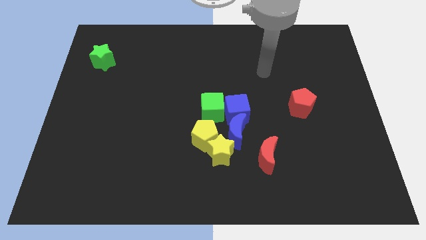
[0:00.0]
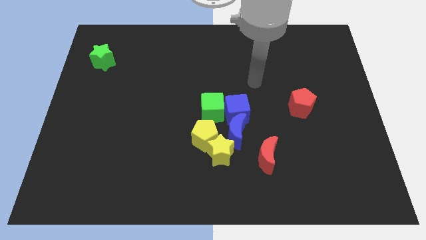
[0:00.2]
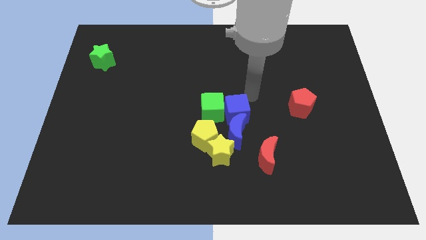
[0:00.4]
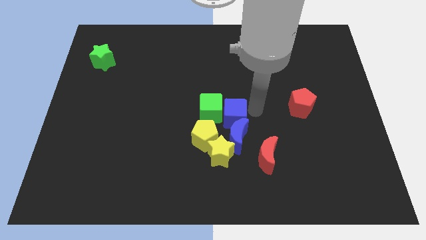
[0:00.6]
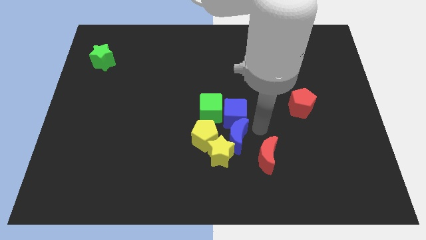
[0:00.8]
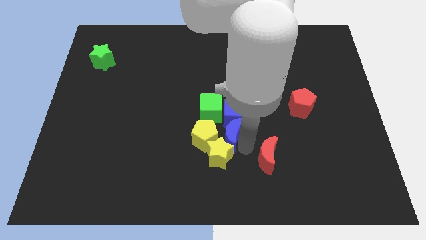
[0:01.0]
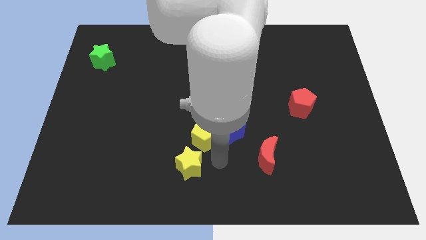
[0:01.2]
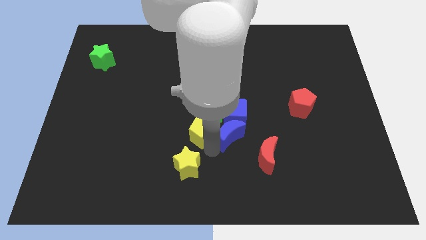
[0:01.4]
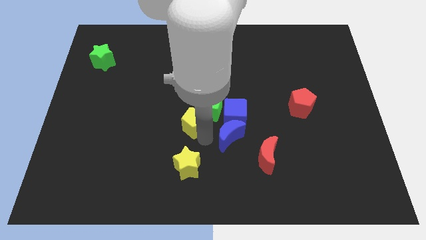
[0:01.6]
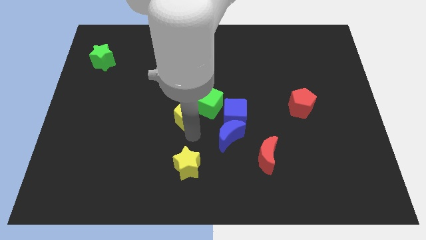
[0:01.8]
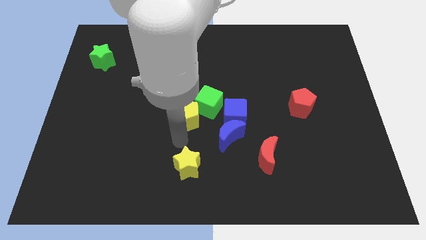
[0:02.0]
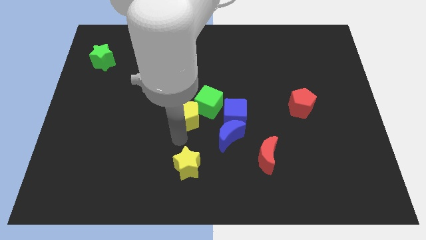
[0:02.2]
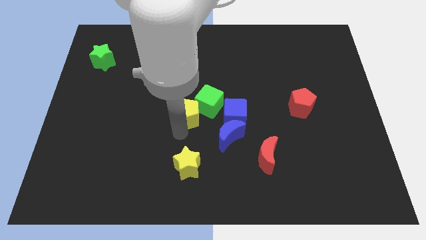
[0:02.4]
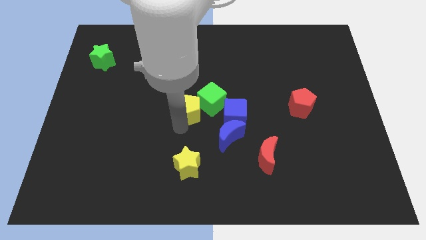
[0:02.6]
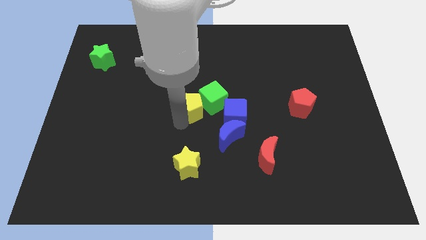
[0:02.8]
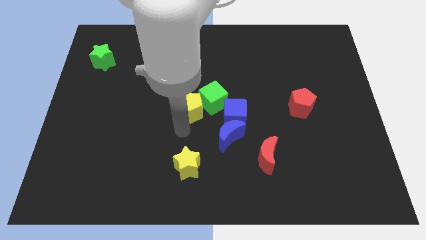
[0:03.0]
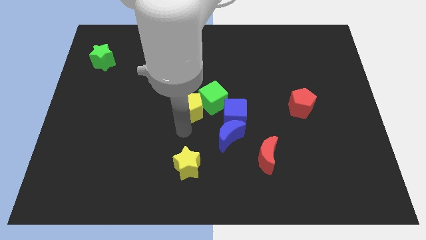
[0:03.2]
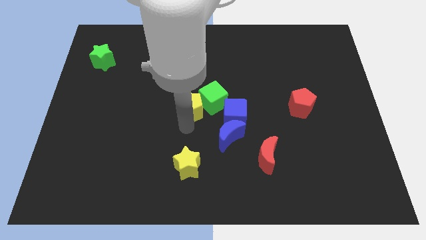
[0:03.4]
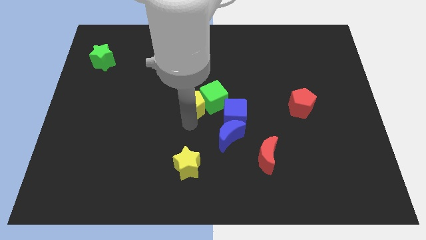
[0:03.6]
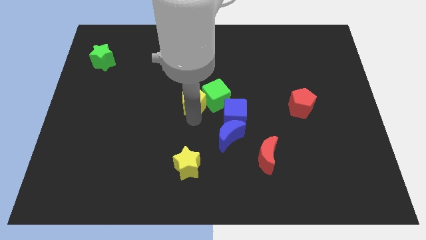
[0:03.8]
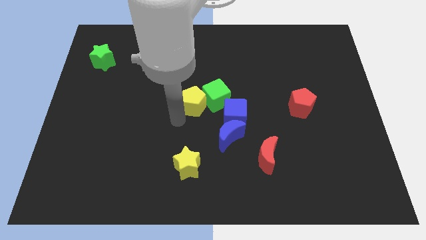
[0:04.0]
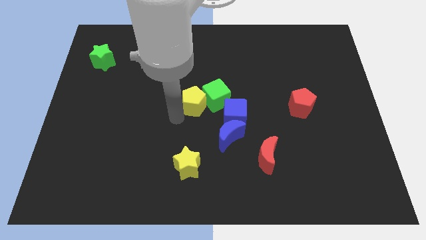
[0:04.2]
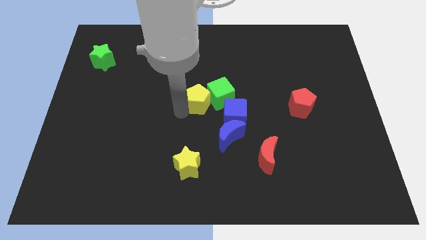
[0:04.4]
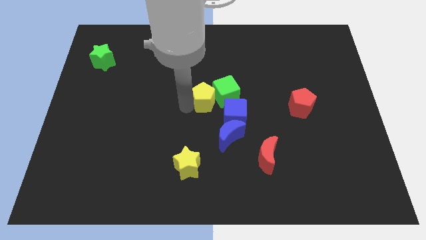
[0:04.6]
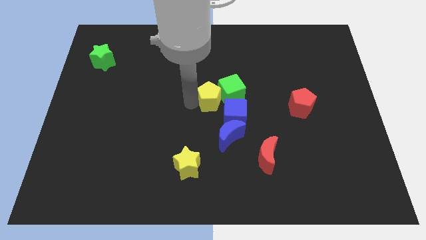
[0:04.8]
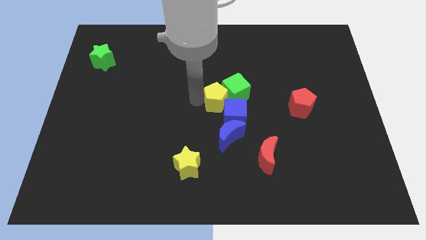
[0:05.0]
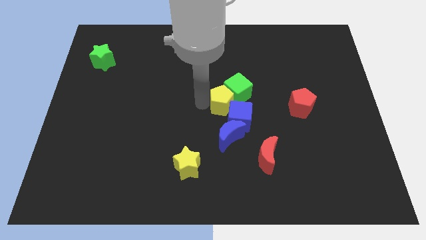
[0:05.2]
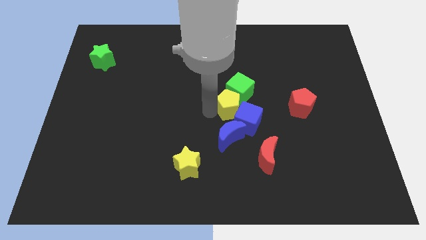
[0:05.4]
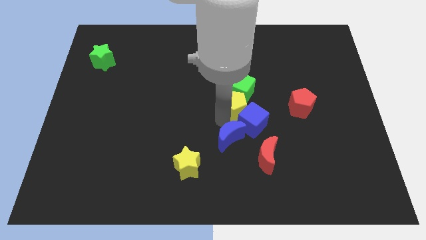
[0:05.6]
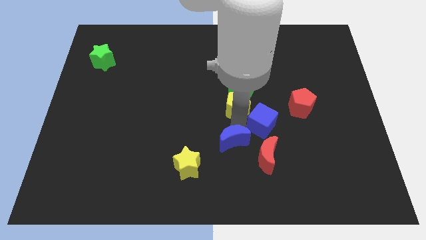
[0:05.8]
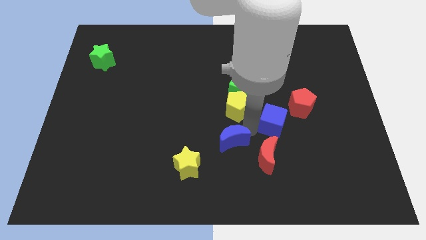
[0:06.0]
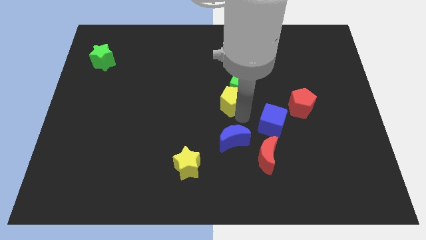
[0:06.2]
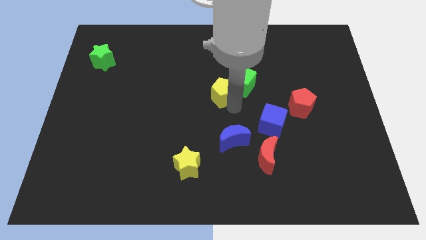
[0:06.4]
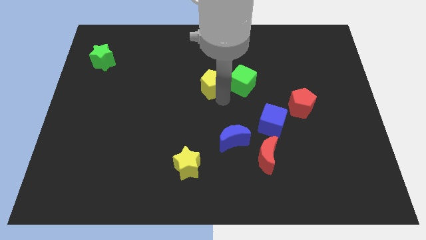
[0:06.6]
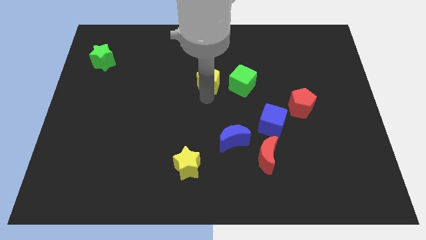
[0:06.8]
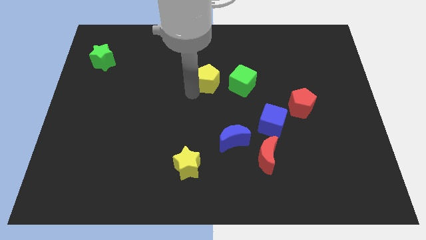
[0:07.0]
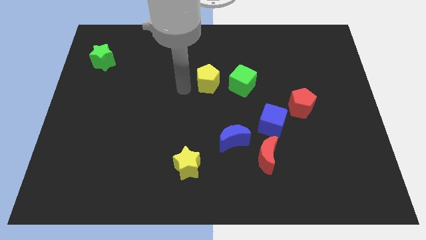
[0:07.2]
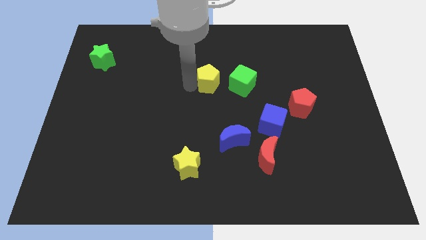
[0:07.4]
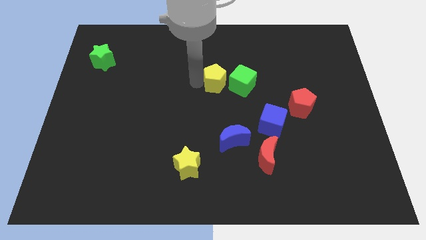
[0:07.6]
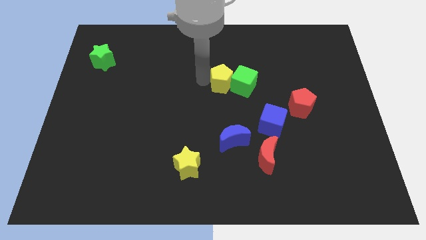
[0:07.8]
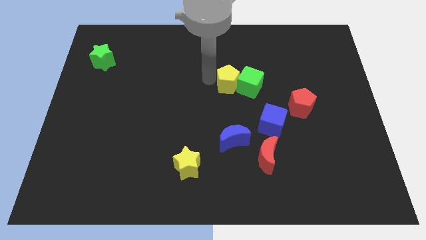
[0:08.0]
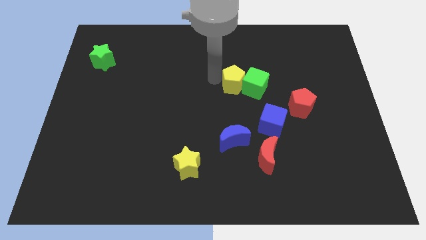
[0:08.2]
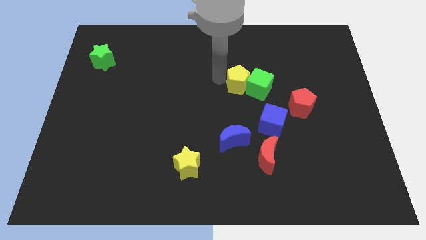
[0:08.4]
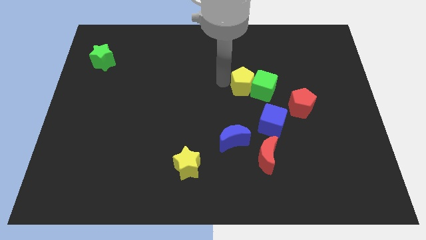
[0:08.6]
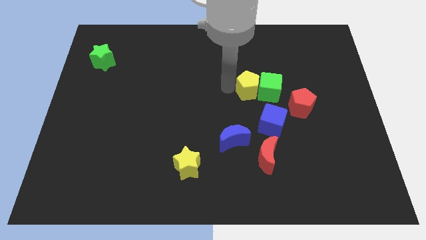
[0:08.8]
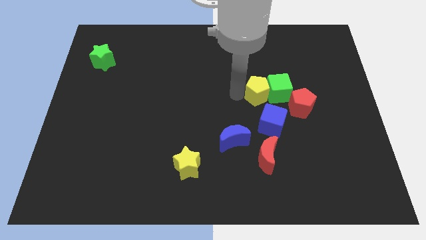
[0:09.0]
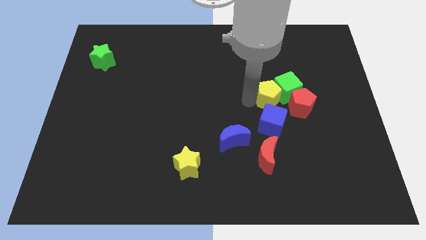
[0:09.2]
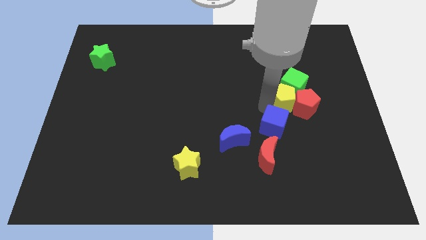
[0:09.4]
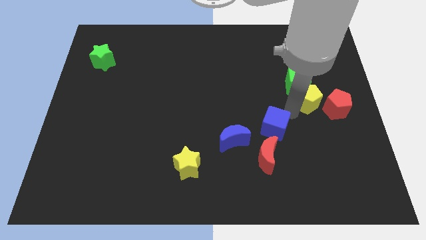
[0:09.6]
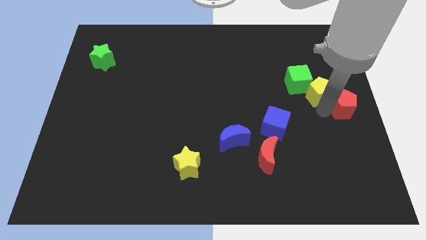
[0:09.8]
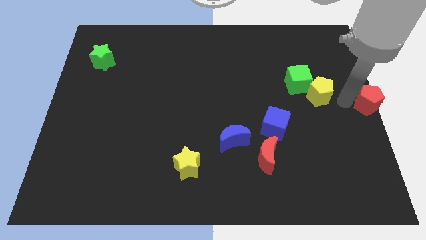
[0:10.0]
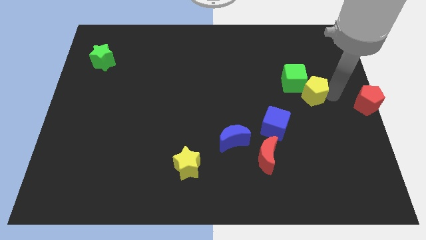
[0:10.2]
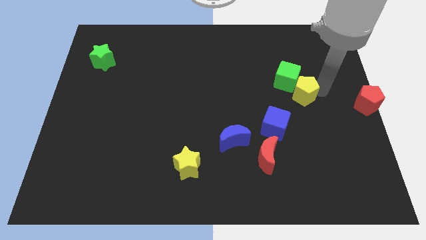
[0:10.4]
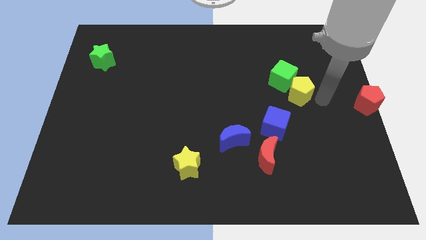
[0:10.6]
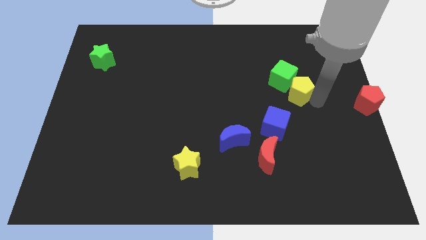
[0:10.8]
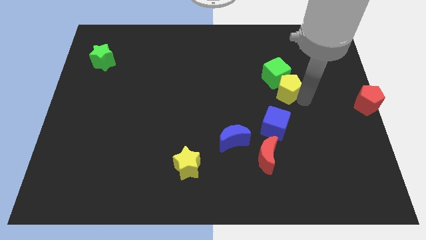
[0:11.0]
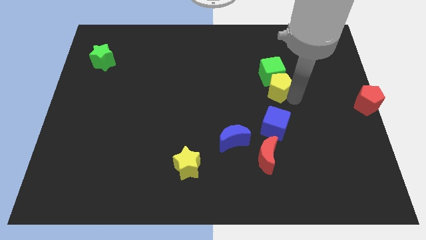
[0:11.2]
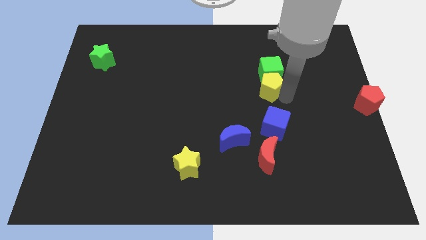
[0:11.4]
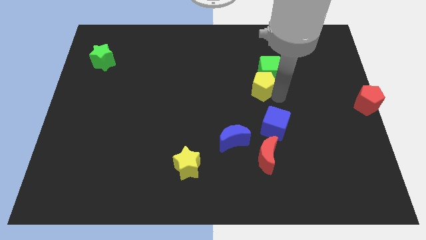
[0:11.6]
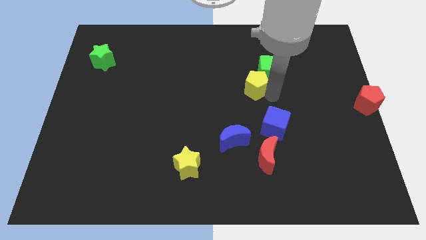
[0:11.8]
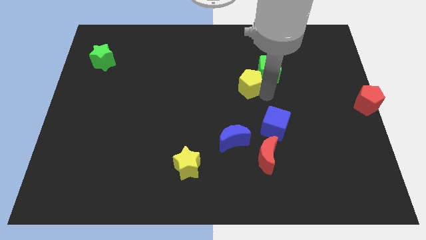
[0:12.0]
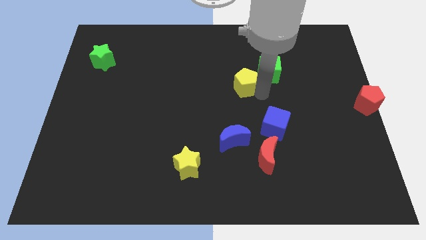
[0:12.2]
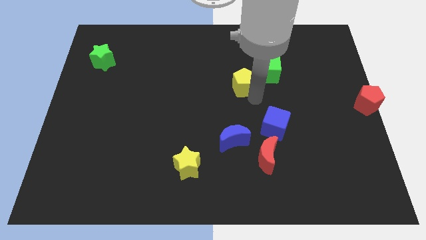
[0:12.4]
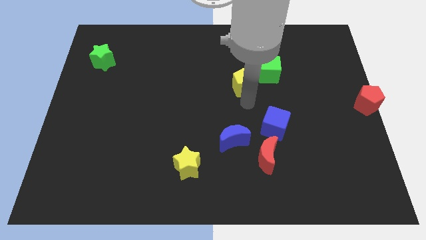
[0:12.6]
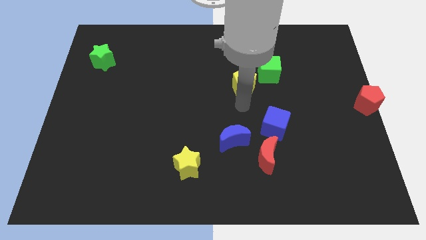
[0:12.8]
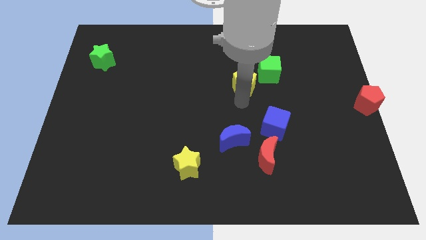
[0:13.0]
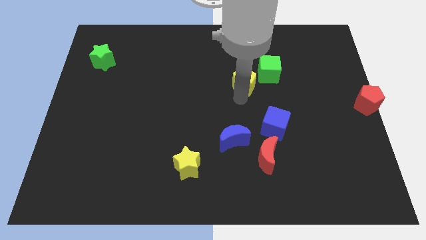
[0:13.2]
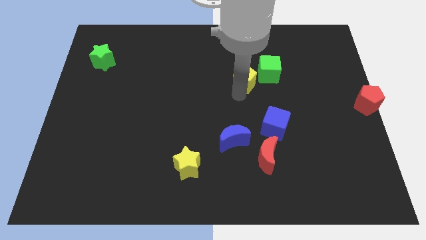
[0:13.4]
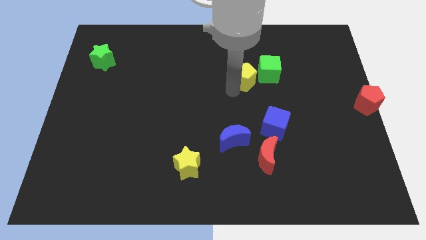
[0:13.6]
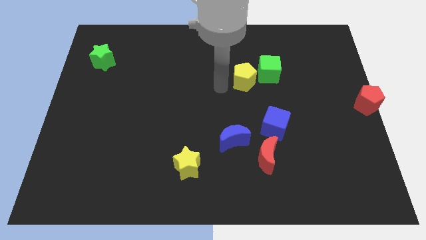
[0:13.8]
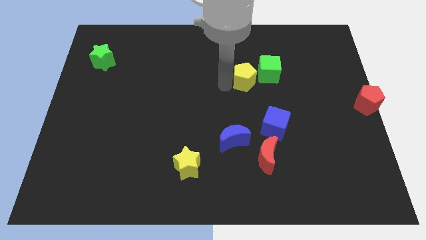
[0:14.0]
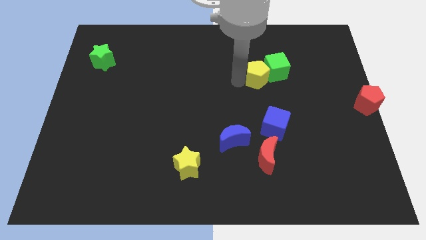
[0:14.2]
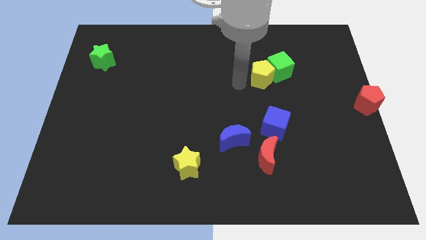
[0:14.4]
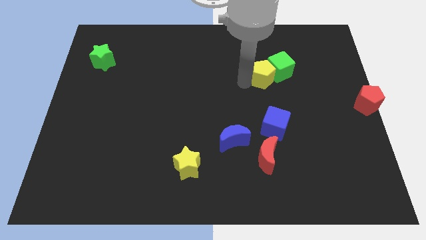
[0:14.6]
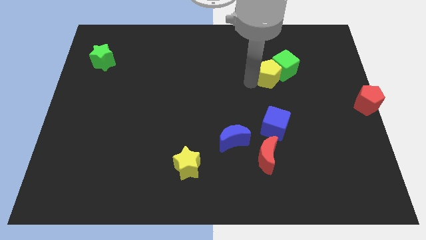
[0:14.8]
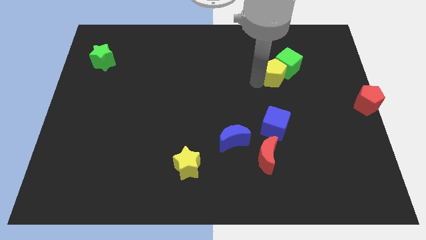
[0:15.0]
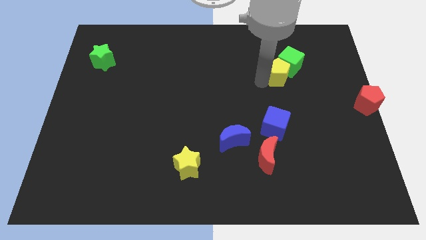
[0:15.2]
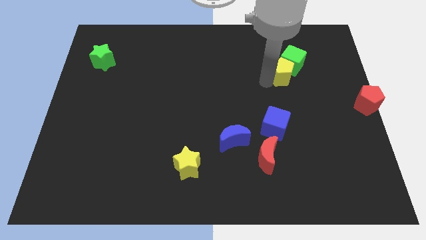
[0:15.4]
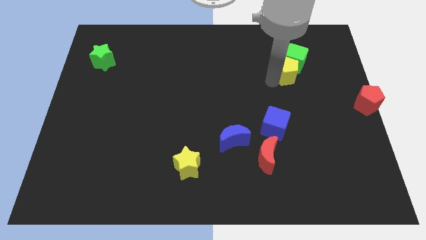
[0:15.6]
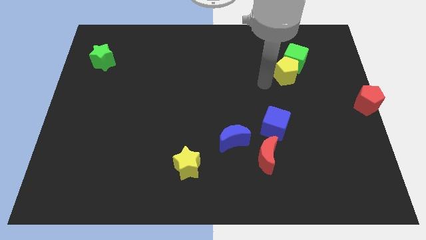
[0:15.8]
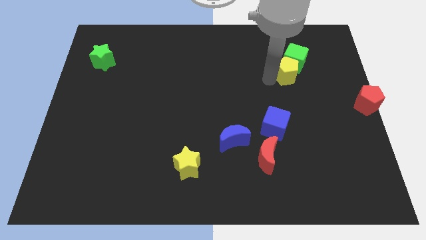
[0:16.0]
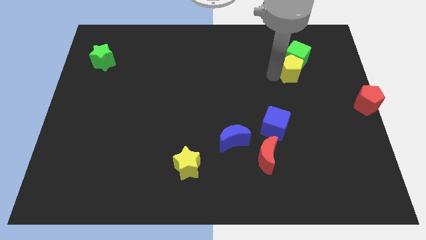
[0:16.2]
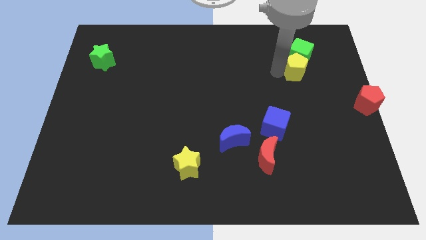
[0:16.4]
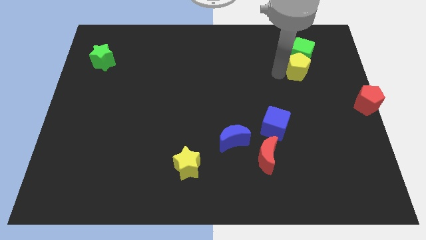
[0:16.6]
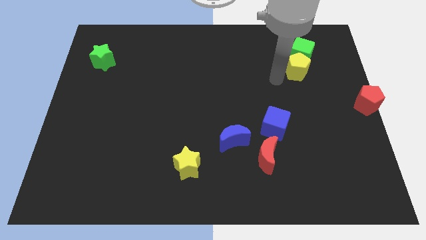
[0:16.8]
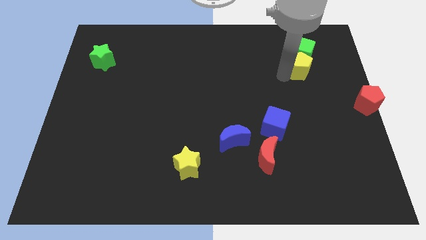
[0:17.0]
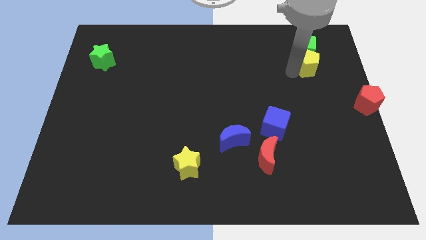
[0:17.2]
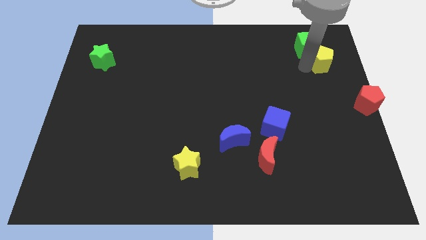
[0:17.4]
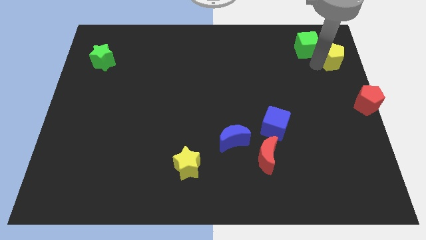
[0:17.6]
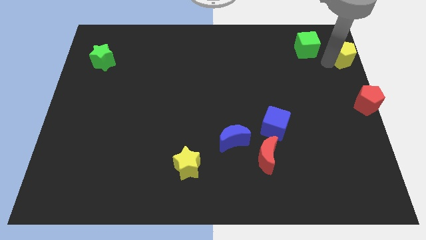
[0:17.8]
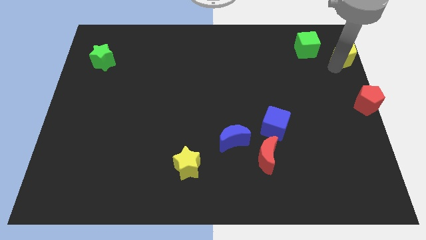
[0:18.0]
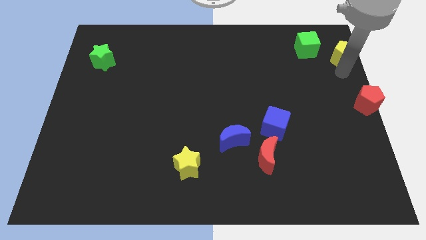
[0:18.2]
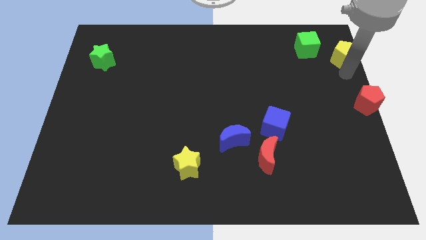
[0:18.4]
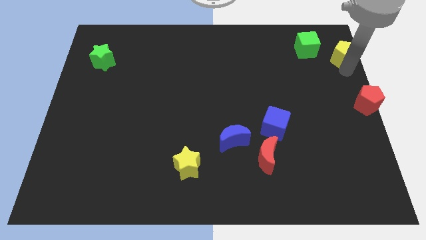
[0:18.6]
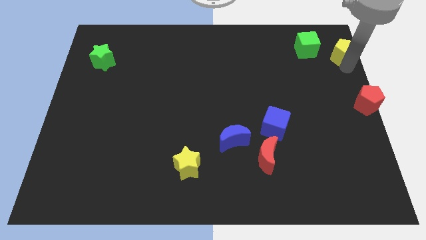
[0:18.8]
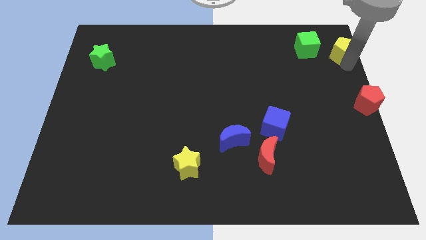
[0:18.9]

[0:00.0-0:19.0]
push the yellow pentagon to the upper right corner
